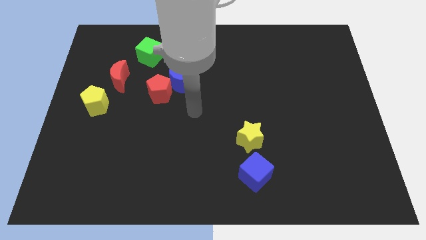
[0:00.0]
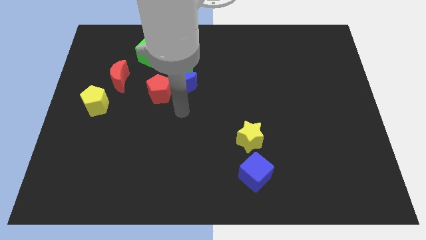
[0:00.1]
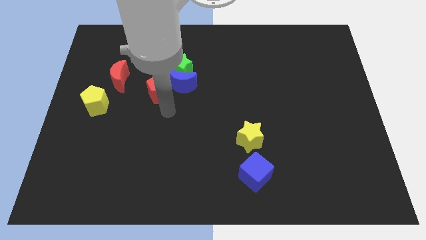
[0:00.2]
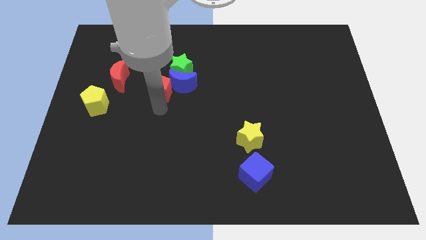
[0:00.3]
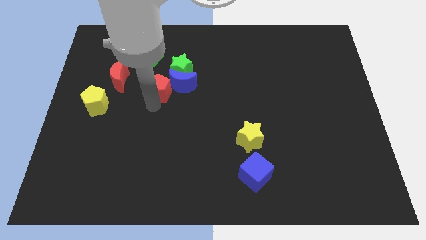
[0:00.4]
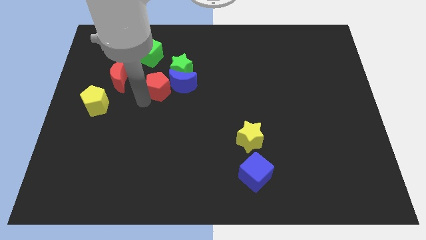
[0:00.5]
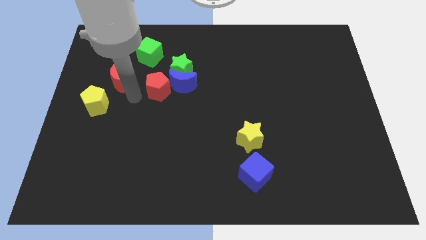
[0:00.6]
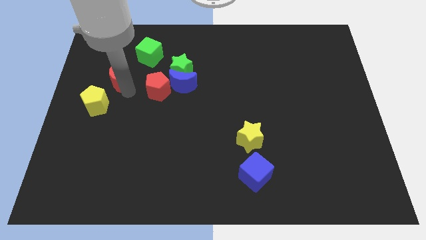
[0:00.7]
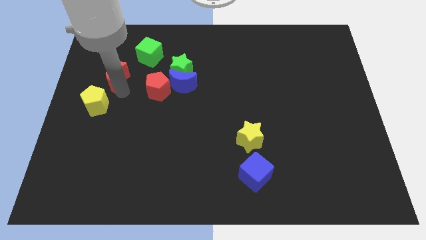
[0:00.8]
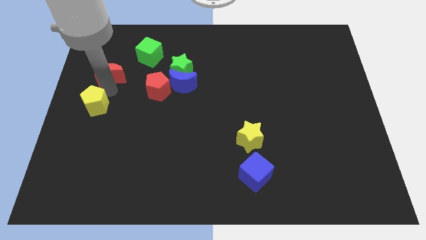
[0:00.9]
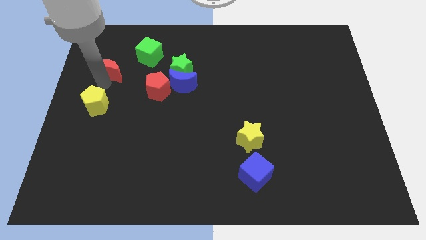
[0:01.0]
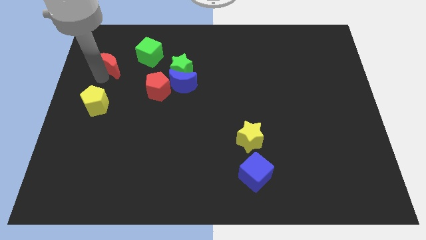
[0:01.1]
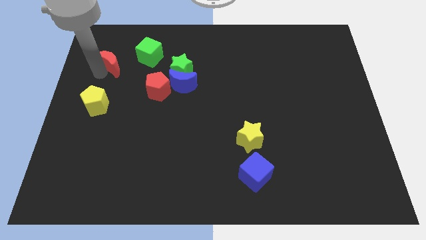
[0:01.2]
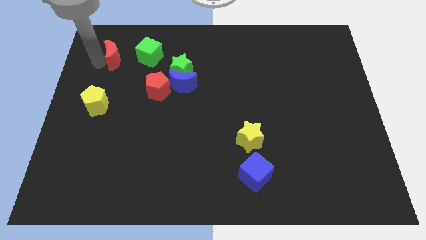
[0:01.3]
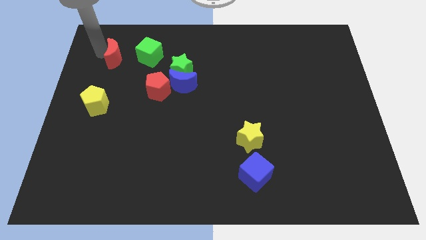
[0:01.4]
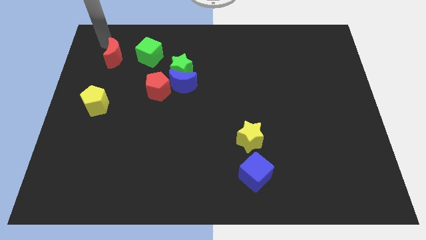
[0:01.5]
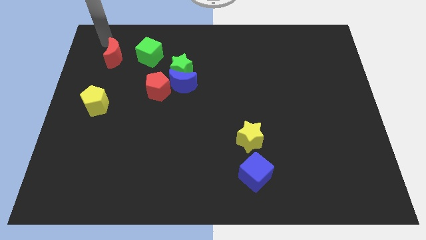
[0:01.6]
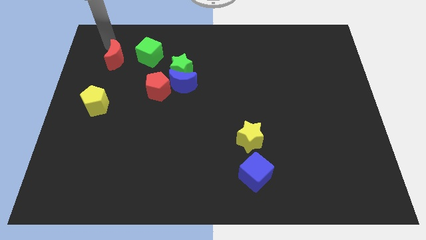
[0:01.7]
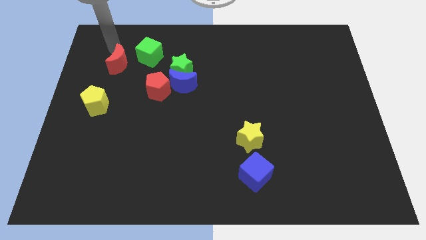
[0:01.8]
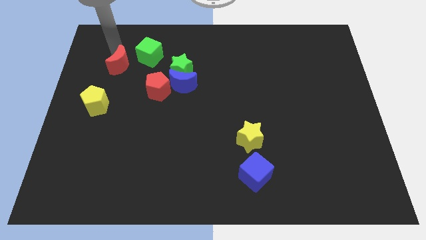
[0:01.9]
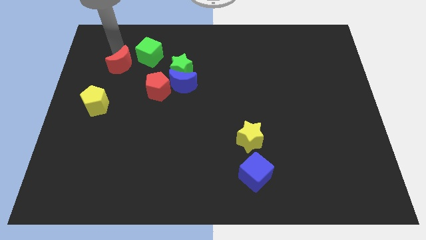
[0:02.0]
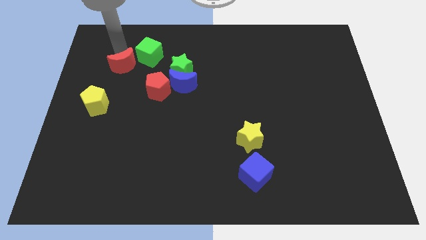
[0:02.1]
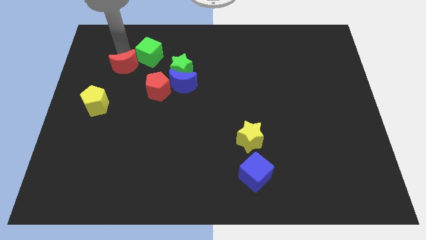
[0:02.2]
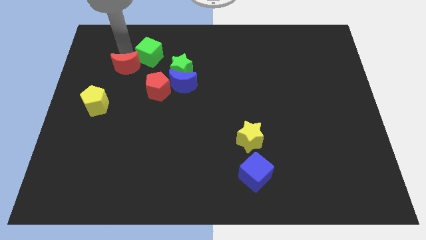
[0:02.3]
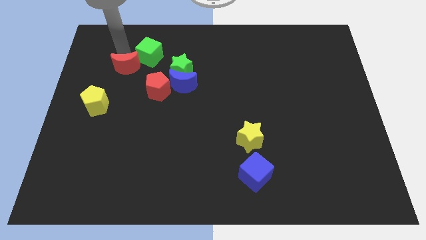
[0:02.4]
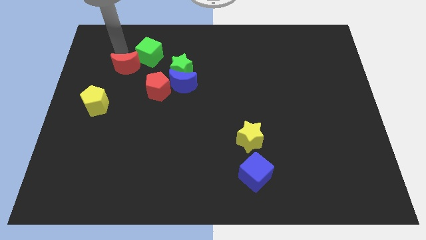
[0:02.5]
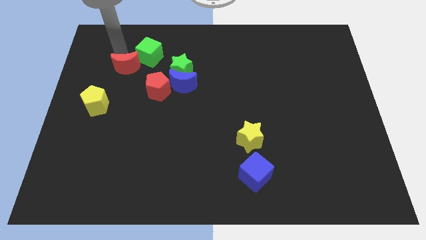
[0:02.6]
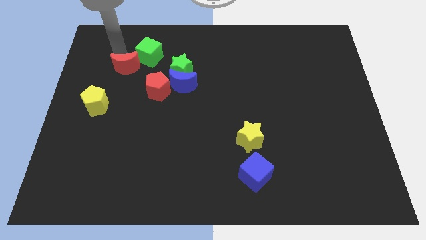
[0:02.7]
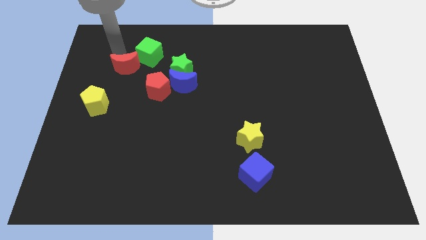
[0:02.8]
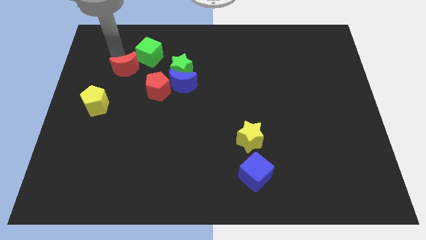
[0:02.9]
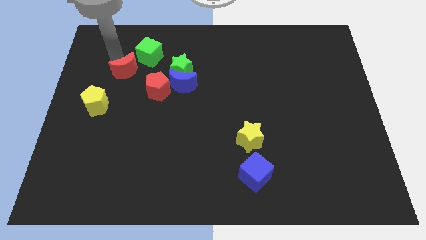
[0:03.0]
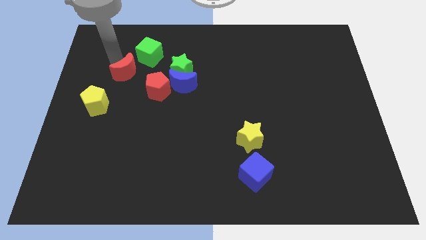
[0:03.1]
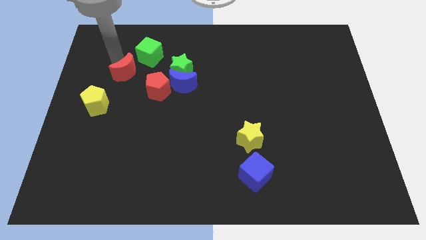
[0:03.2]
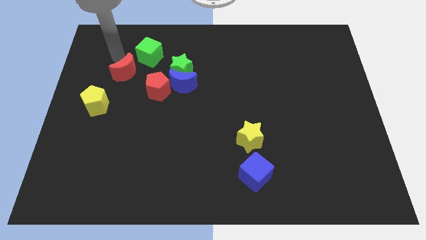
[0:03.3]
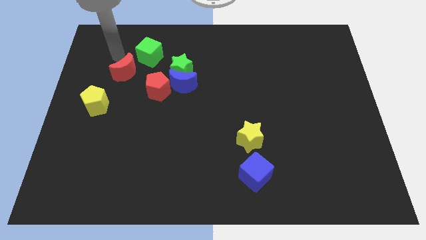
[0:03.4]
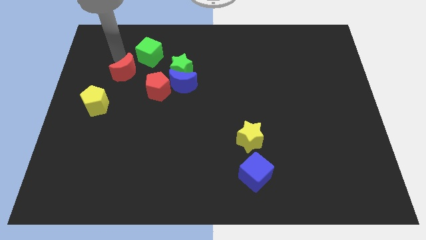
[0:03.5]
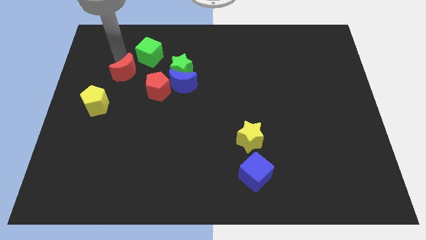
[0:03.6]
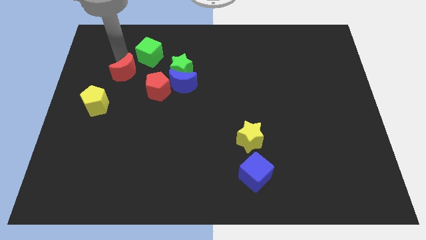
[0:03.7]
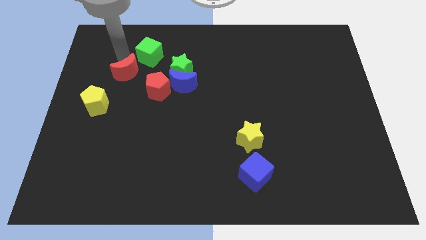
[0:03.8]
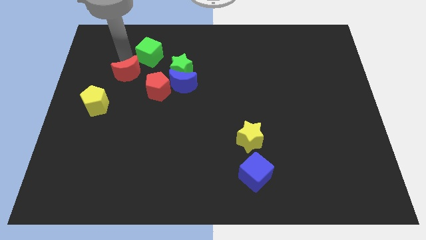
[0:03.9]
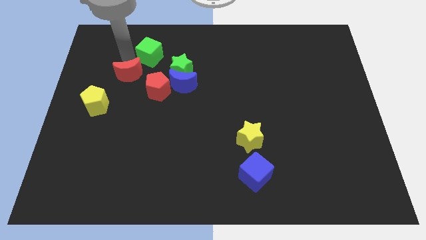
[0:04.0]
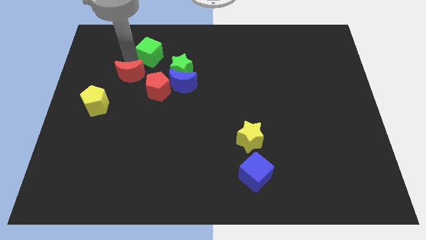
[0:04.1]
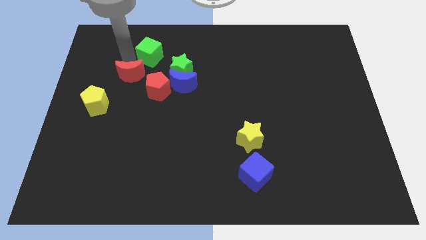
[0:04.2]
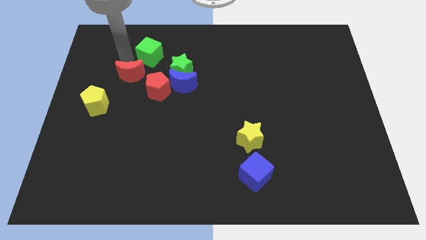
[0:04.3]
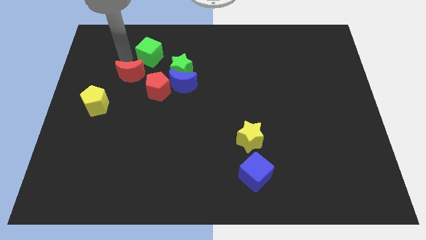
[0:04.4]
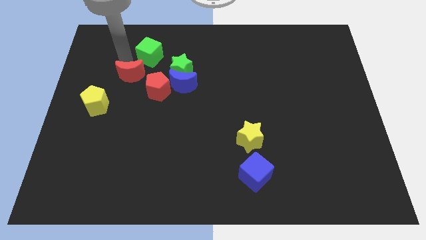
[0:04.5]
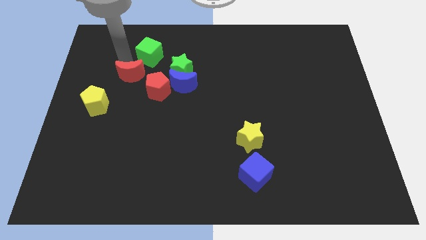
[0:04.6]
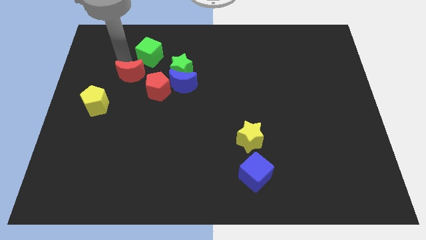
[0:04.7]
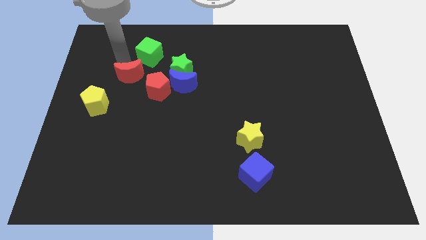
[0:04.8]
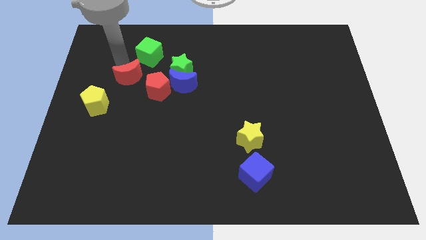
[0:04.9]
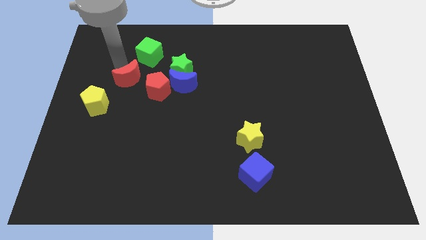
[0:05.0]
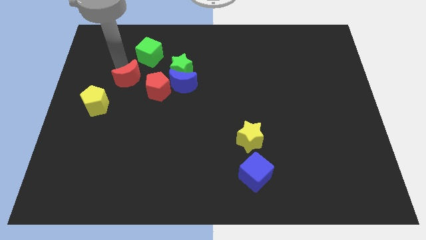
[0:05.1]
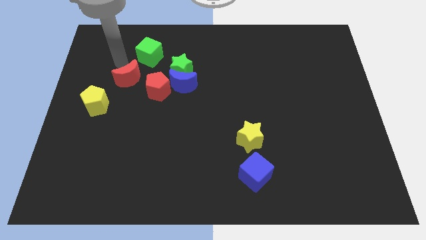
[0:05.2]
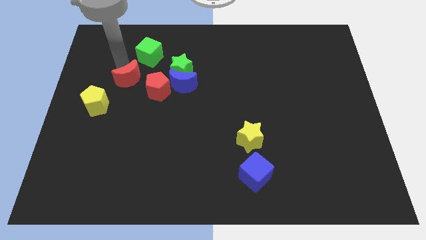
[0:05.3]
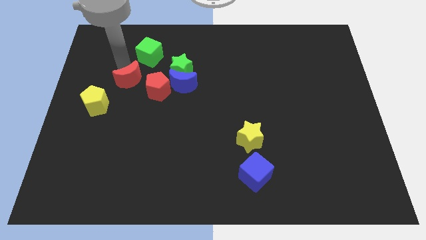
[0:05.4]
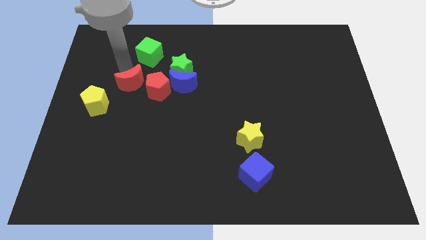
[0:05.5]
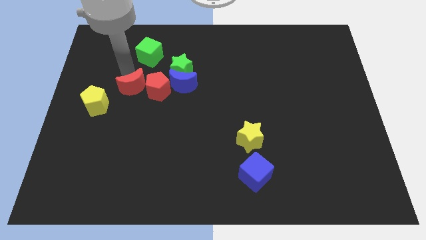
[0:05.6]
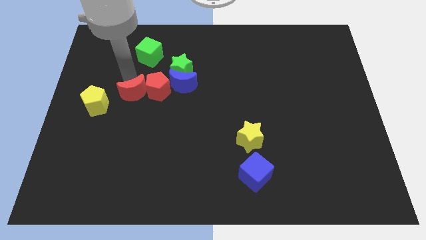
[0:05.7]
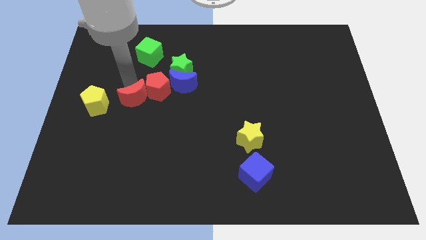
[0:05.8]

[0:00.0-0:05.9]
slide the red moon slightly down and then right

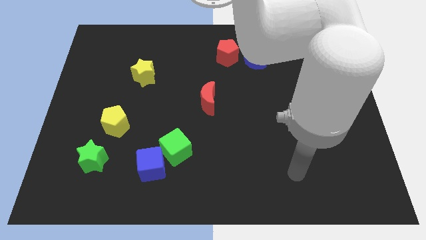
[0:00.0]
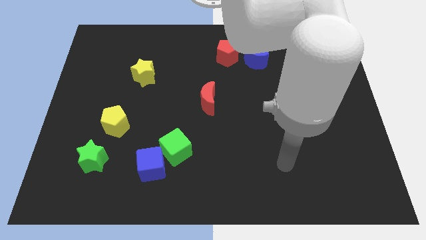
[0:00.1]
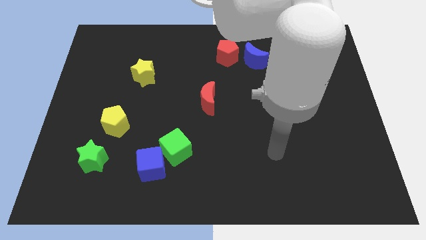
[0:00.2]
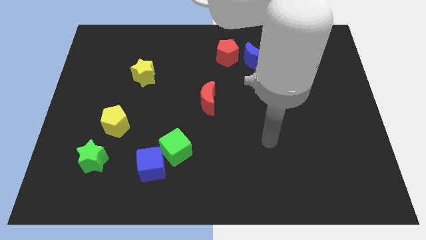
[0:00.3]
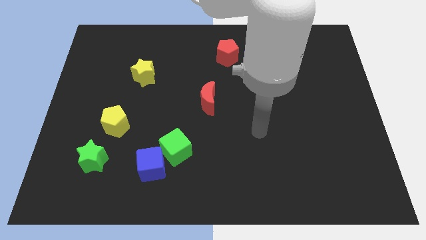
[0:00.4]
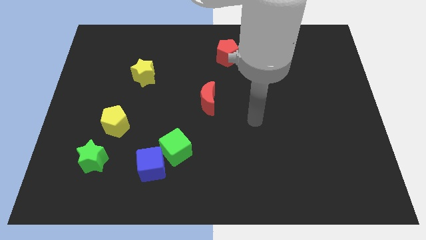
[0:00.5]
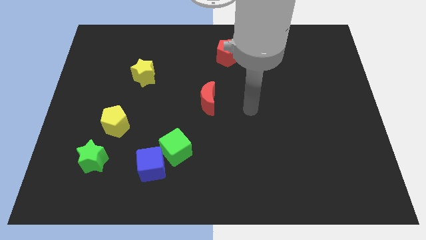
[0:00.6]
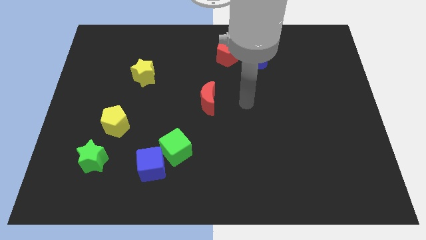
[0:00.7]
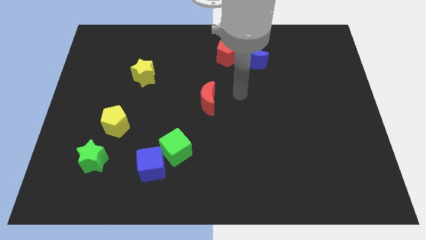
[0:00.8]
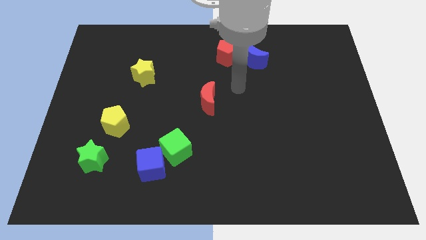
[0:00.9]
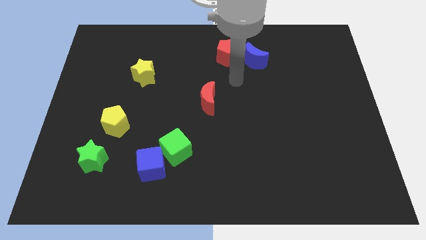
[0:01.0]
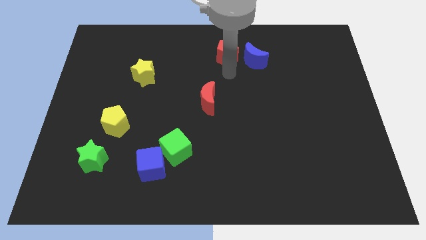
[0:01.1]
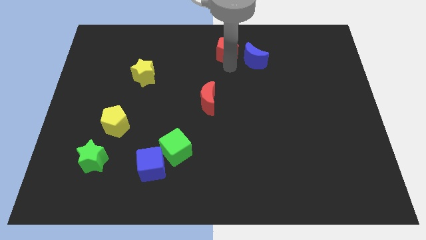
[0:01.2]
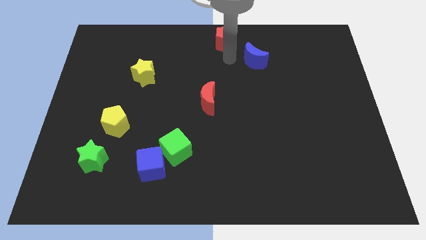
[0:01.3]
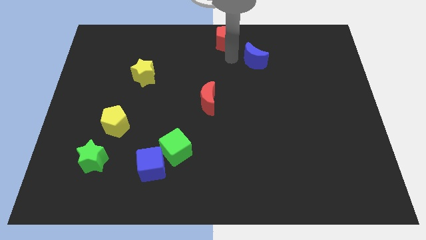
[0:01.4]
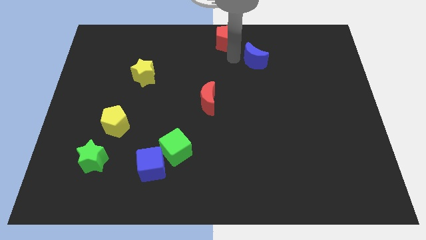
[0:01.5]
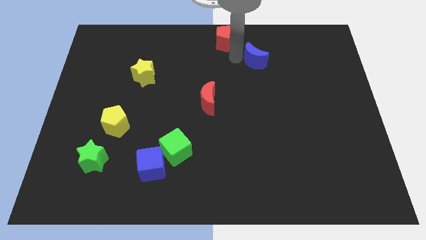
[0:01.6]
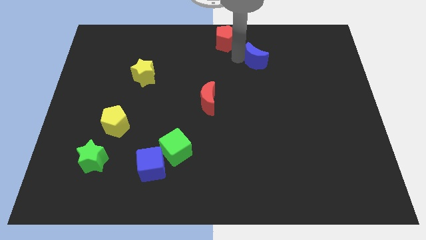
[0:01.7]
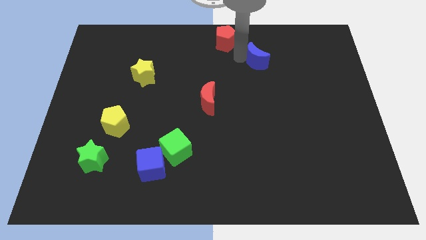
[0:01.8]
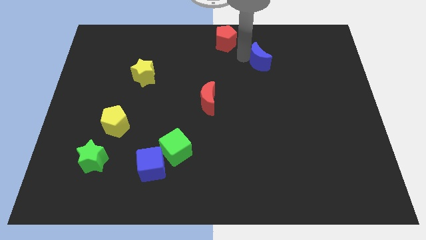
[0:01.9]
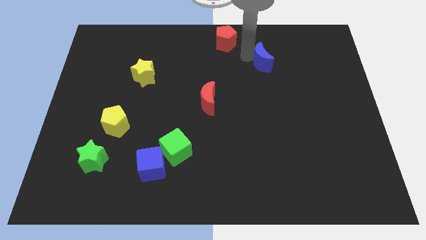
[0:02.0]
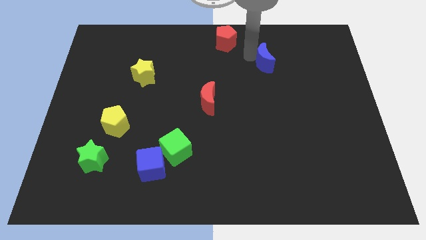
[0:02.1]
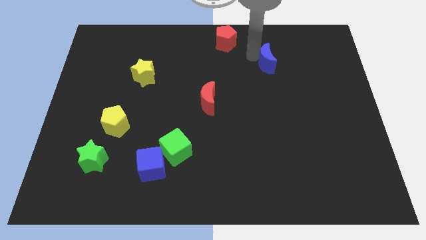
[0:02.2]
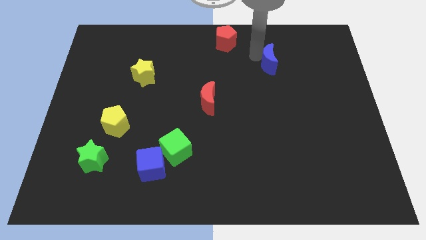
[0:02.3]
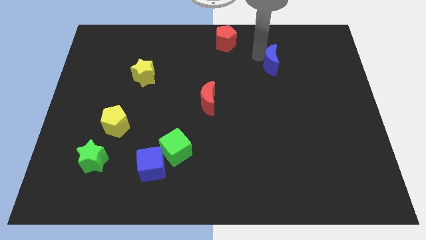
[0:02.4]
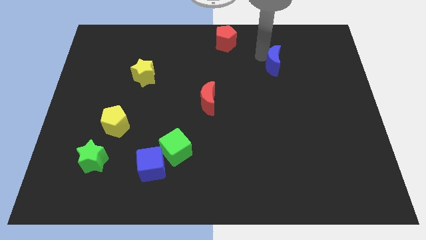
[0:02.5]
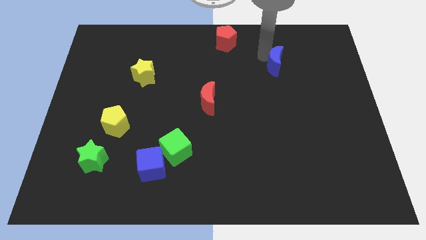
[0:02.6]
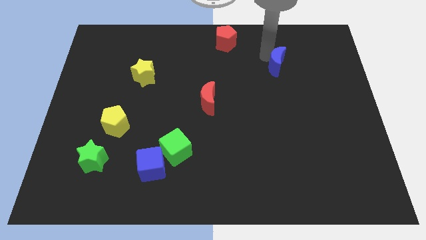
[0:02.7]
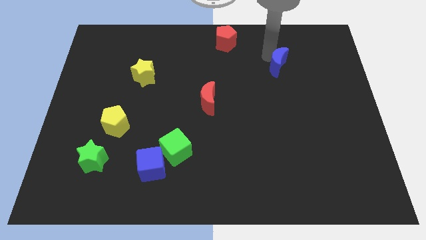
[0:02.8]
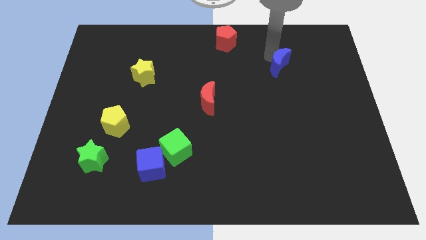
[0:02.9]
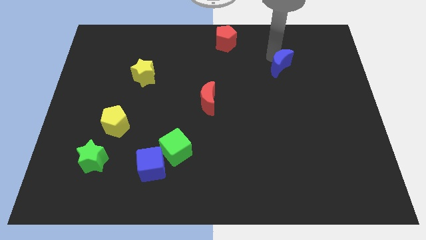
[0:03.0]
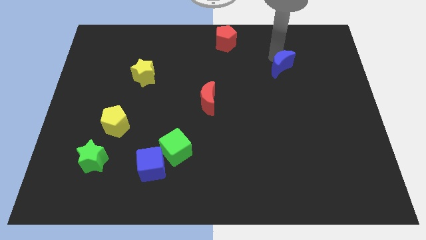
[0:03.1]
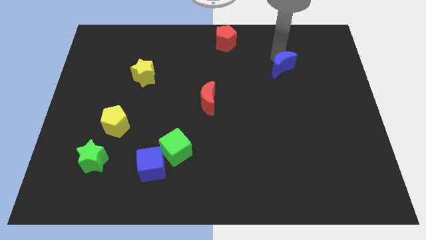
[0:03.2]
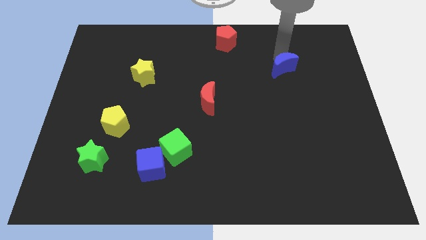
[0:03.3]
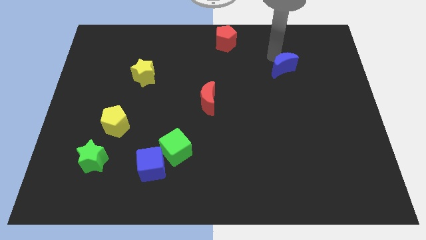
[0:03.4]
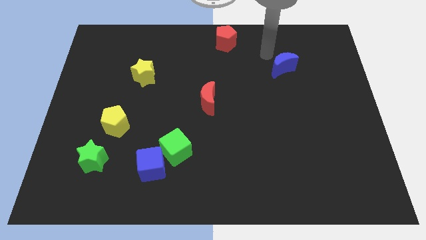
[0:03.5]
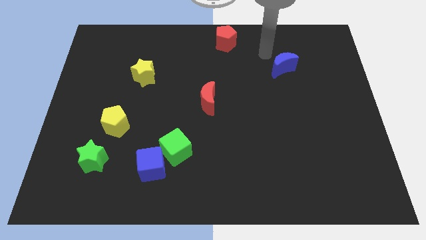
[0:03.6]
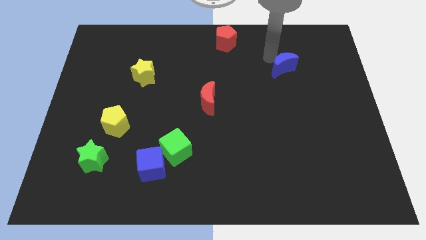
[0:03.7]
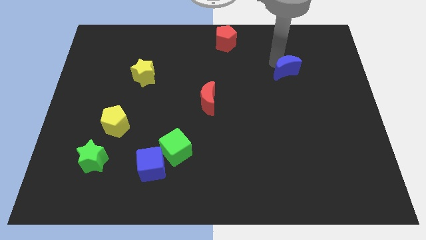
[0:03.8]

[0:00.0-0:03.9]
slide the blue moon slightly downwards and right
